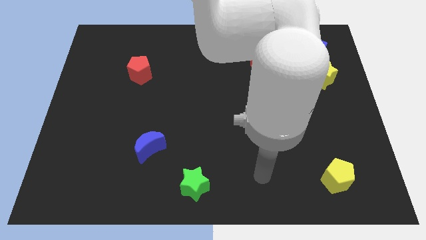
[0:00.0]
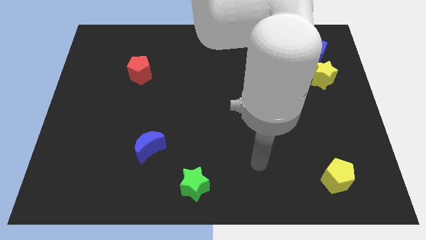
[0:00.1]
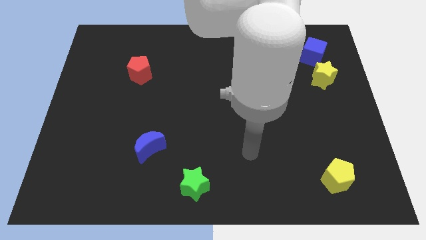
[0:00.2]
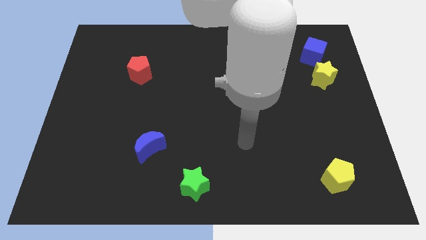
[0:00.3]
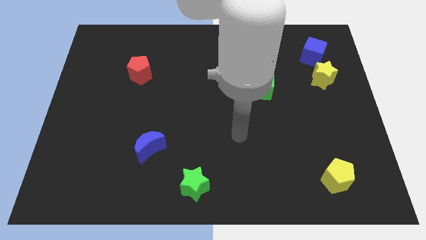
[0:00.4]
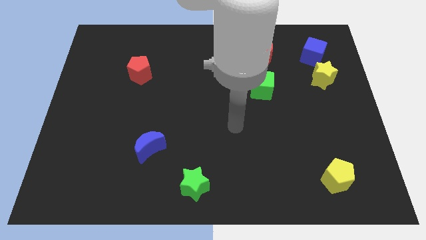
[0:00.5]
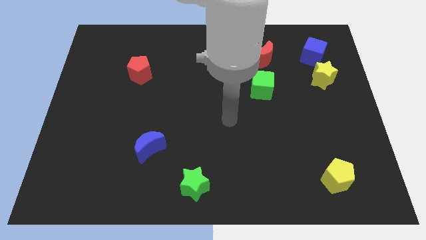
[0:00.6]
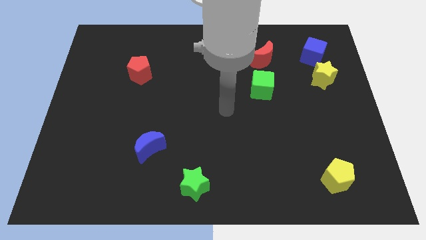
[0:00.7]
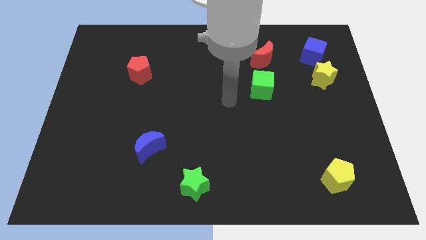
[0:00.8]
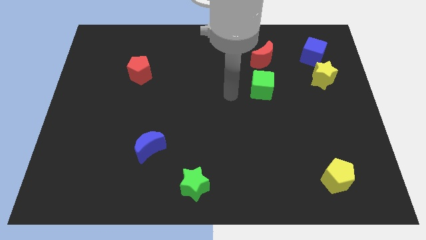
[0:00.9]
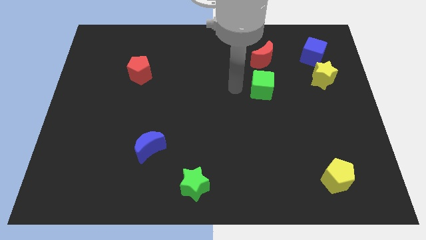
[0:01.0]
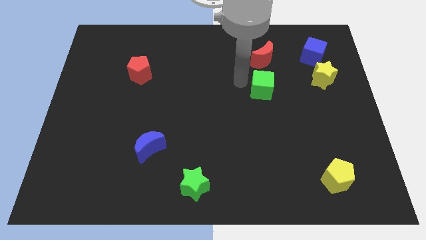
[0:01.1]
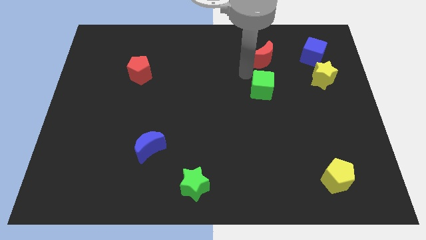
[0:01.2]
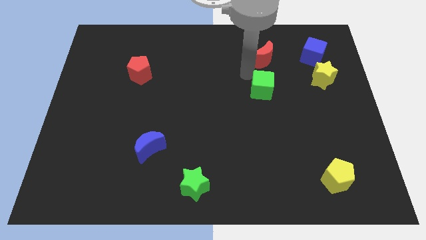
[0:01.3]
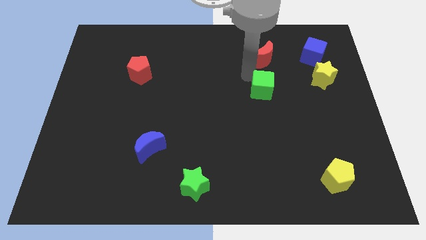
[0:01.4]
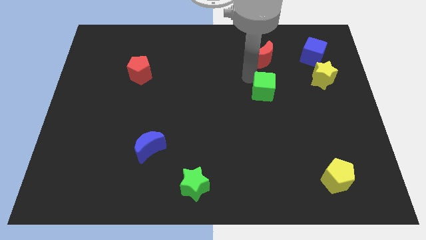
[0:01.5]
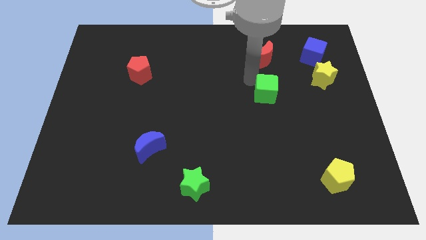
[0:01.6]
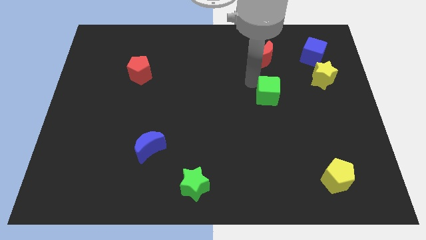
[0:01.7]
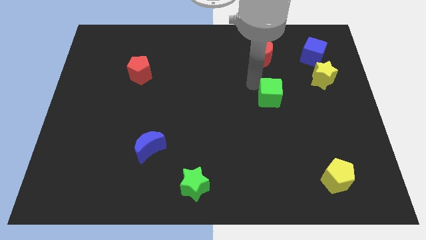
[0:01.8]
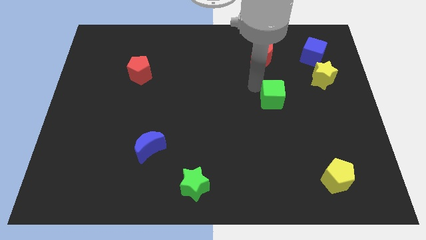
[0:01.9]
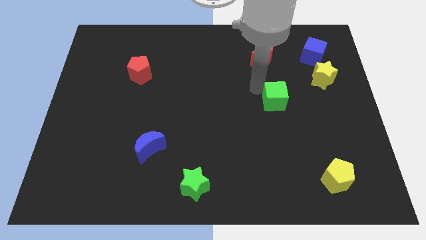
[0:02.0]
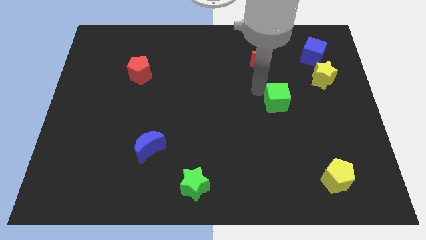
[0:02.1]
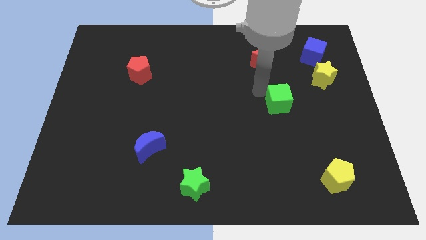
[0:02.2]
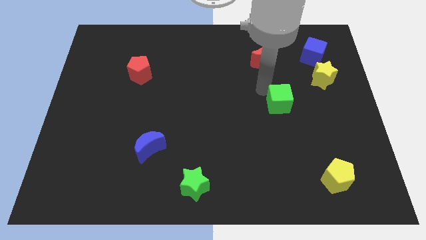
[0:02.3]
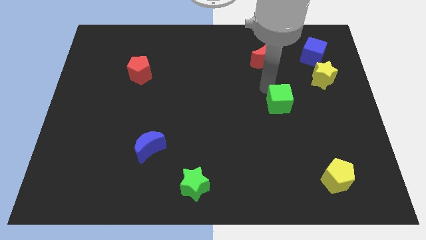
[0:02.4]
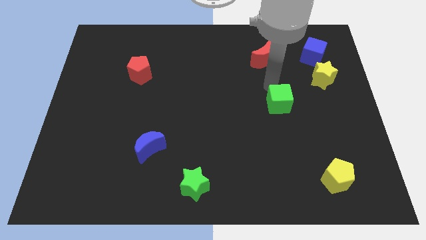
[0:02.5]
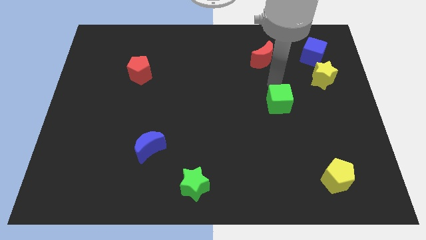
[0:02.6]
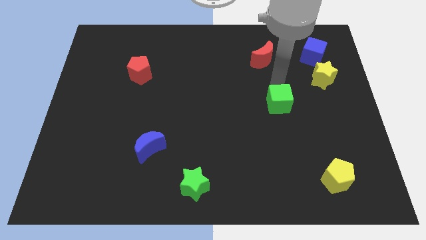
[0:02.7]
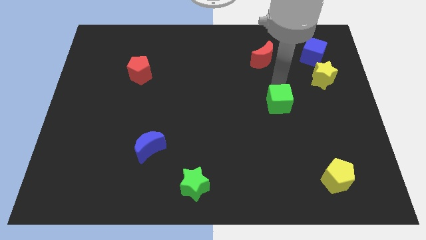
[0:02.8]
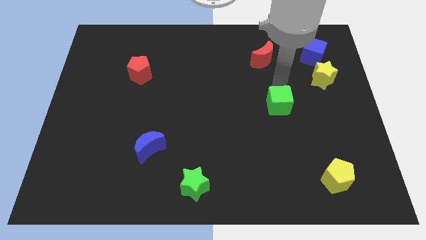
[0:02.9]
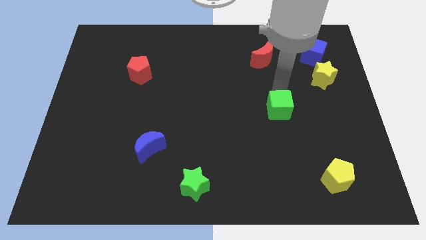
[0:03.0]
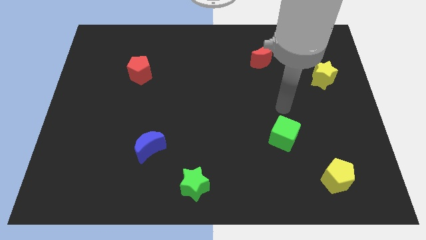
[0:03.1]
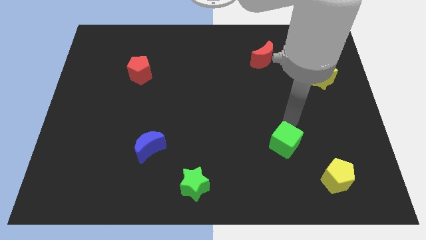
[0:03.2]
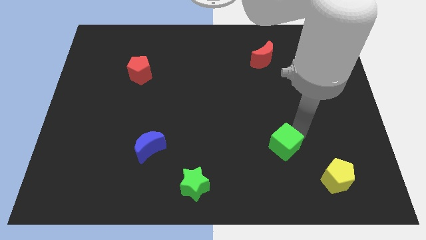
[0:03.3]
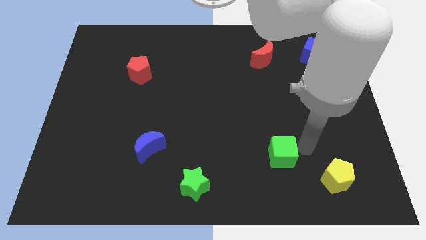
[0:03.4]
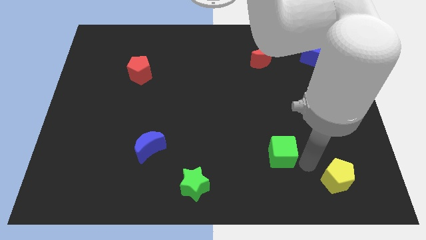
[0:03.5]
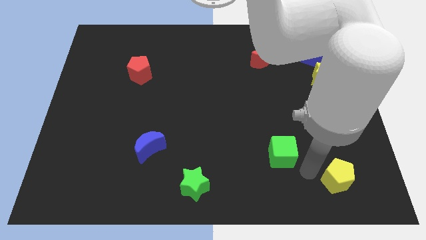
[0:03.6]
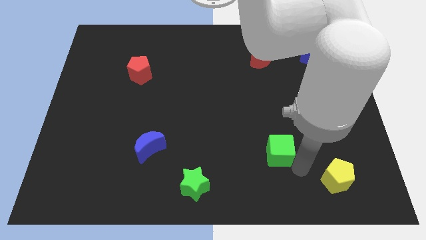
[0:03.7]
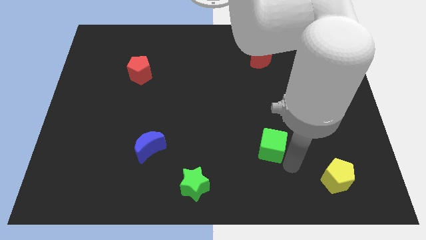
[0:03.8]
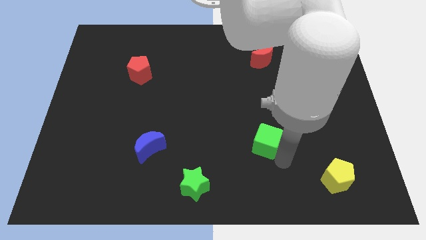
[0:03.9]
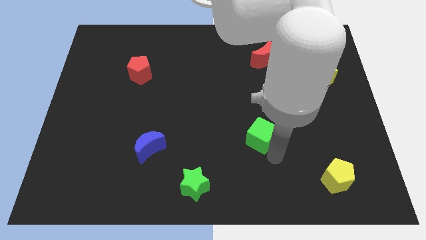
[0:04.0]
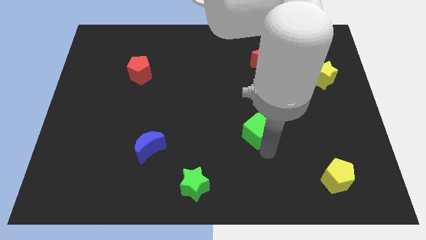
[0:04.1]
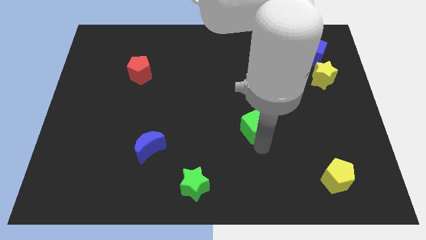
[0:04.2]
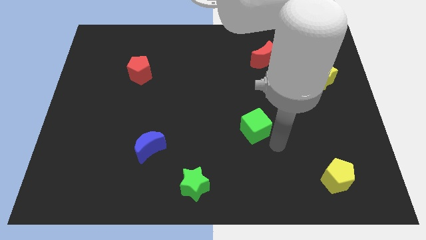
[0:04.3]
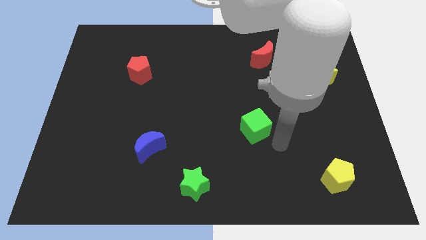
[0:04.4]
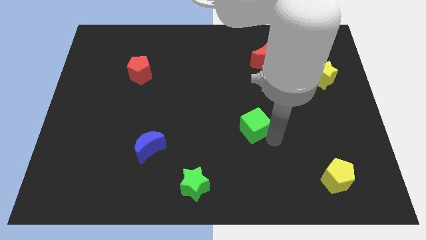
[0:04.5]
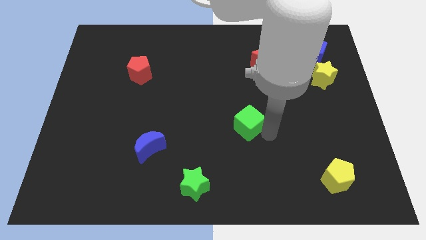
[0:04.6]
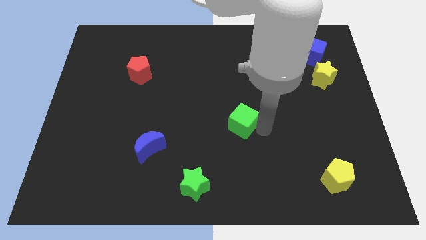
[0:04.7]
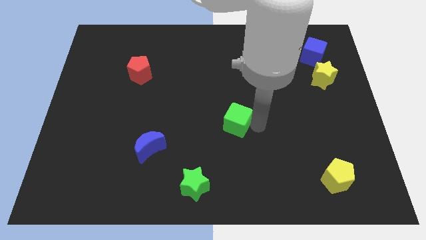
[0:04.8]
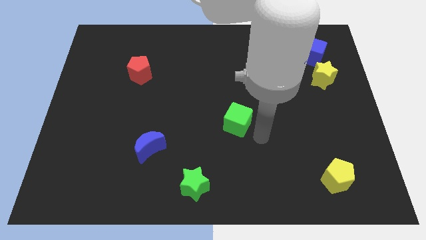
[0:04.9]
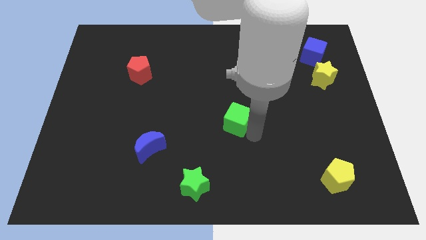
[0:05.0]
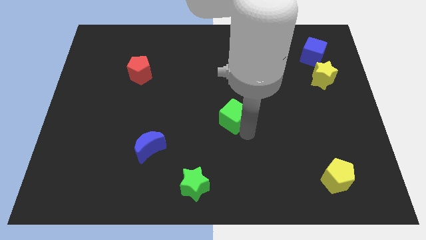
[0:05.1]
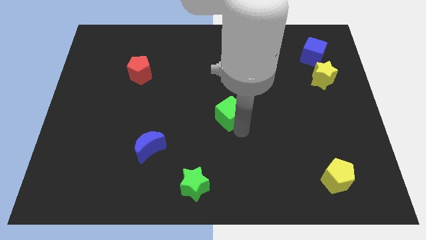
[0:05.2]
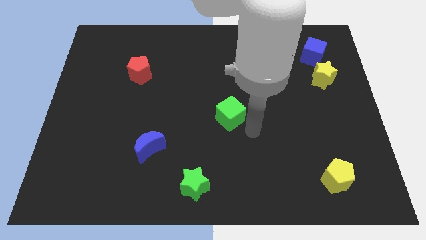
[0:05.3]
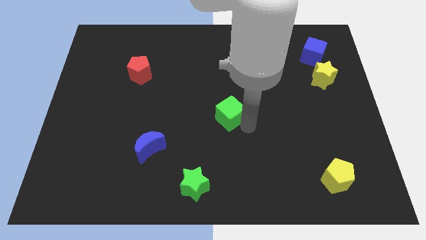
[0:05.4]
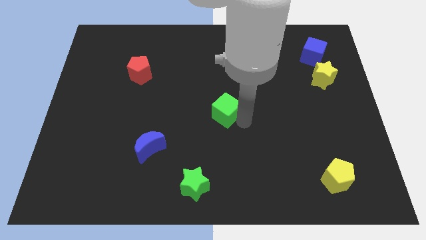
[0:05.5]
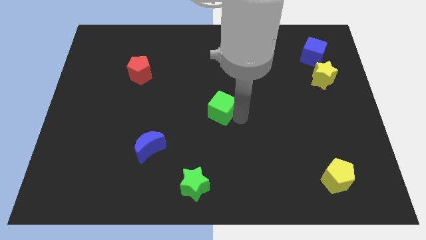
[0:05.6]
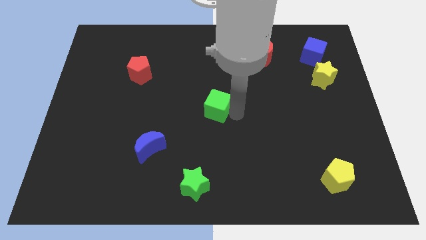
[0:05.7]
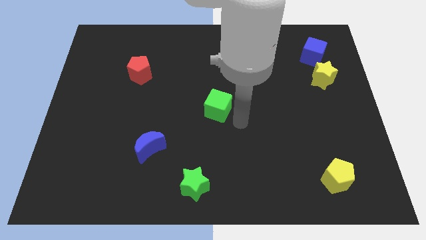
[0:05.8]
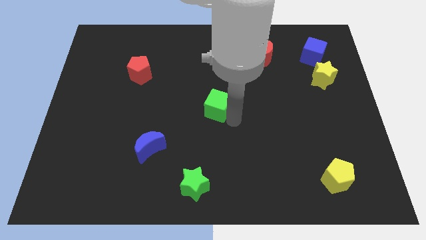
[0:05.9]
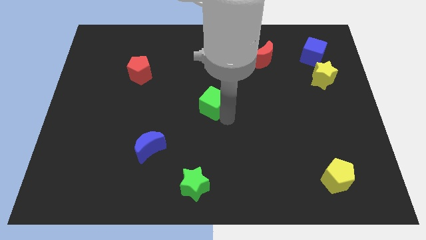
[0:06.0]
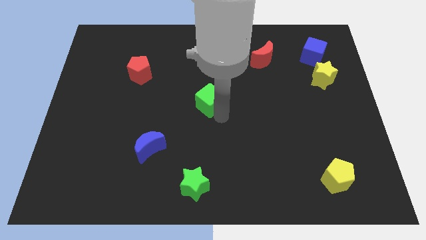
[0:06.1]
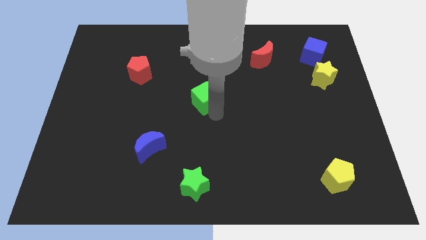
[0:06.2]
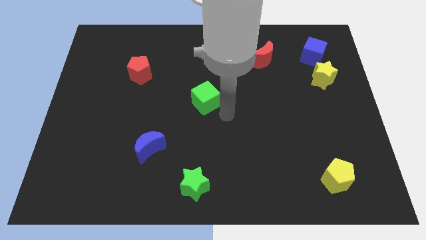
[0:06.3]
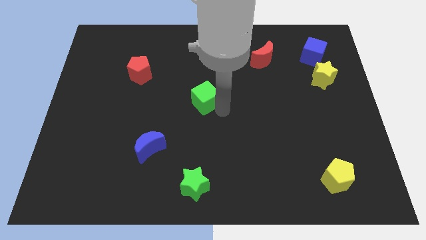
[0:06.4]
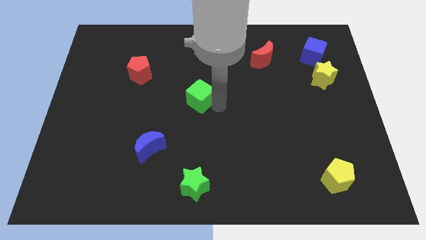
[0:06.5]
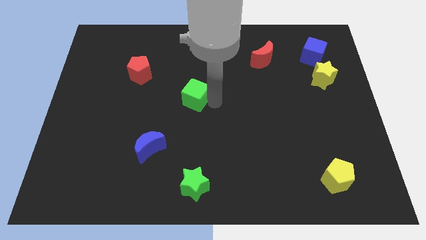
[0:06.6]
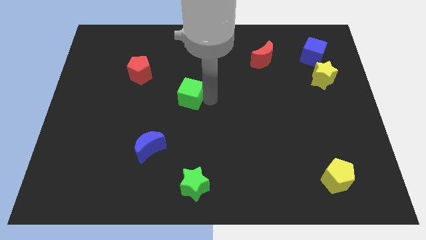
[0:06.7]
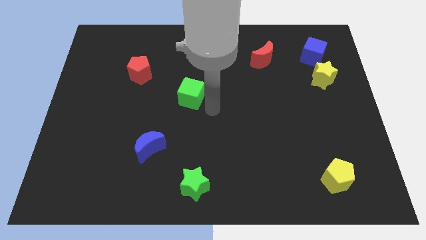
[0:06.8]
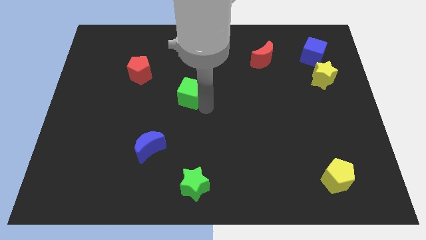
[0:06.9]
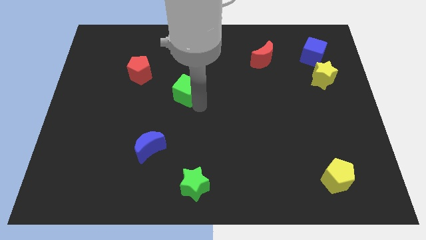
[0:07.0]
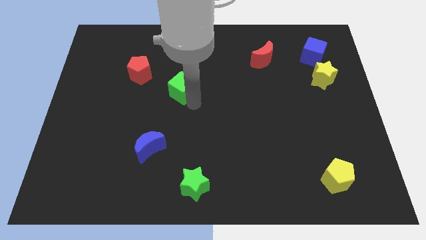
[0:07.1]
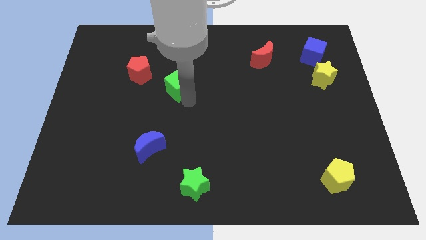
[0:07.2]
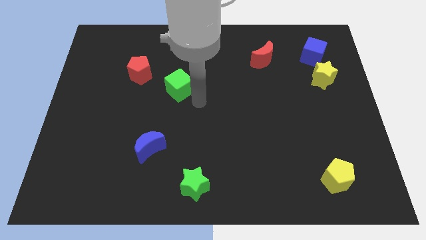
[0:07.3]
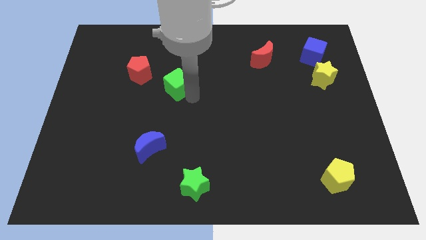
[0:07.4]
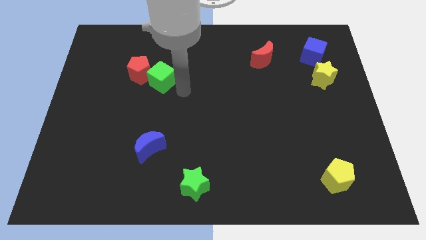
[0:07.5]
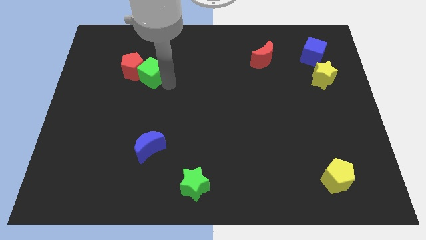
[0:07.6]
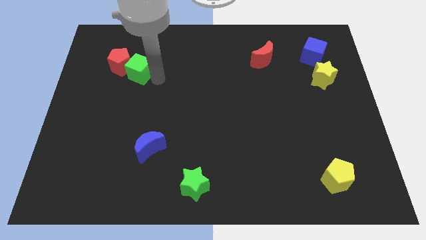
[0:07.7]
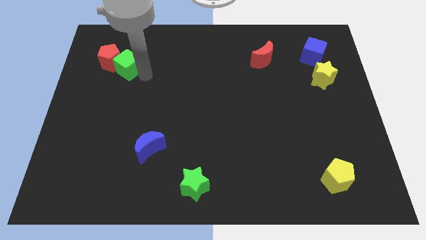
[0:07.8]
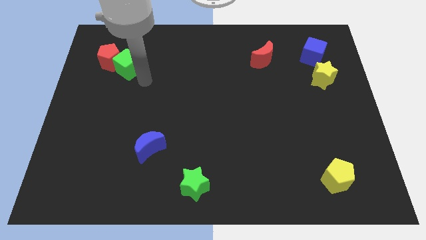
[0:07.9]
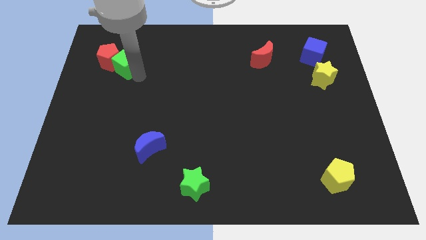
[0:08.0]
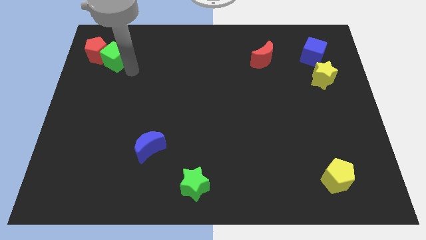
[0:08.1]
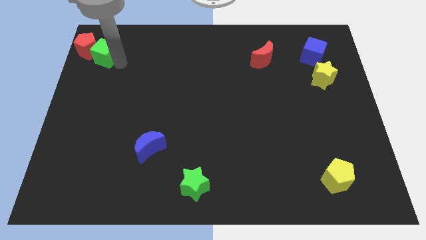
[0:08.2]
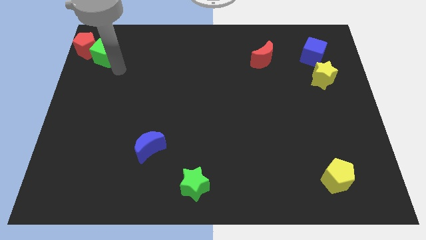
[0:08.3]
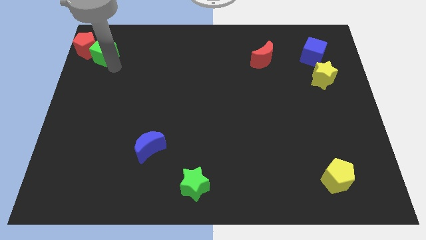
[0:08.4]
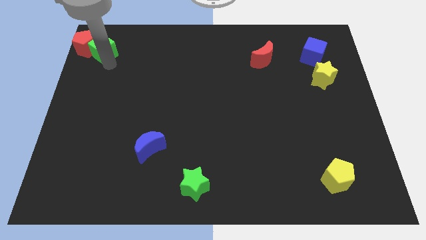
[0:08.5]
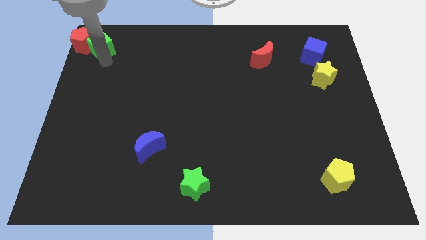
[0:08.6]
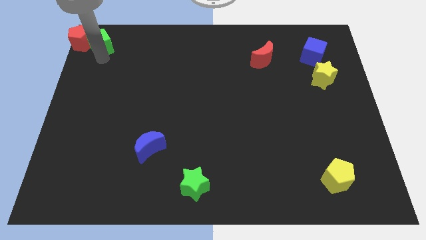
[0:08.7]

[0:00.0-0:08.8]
slide the green cube to the top left corner
